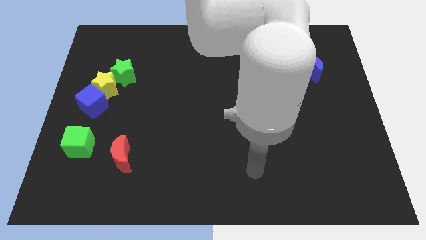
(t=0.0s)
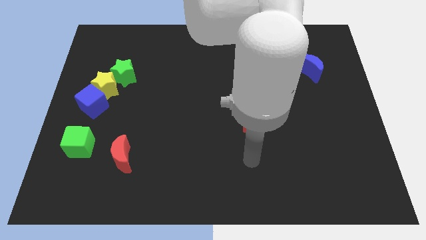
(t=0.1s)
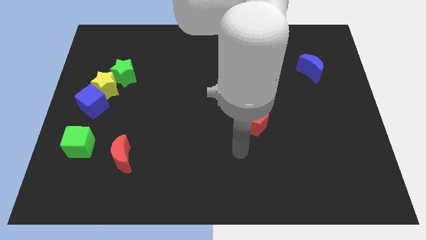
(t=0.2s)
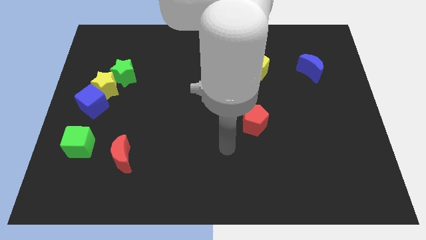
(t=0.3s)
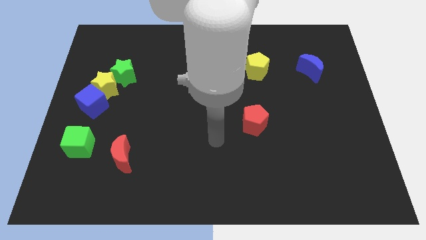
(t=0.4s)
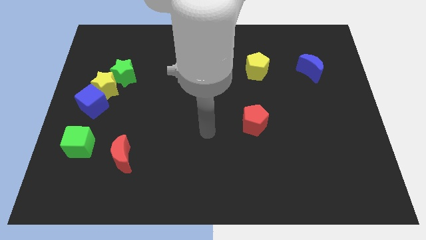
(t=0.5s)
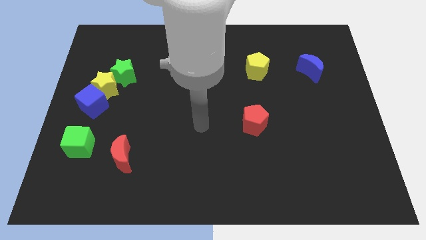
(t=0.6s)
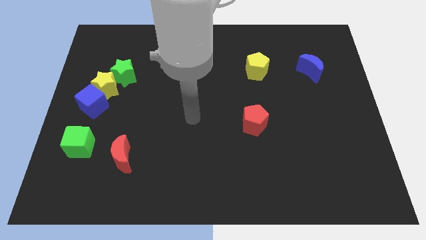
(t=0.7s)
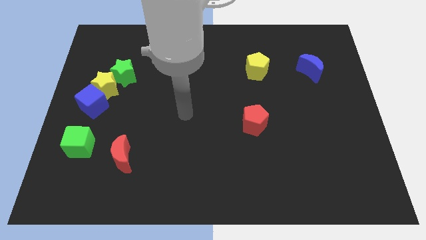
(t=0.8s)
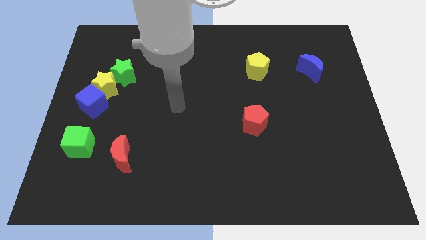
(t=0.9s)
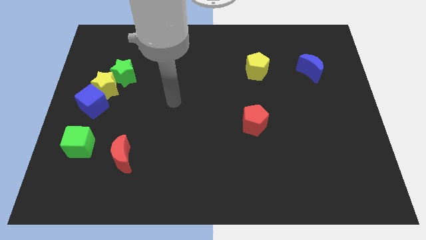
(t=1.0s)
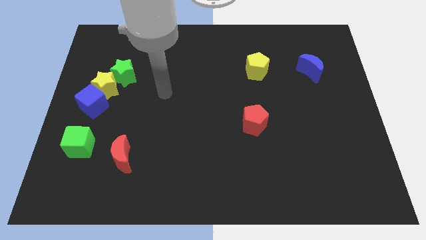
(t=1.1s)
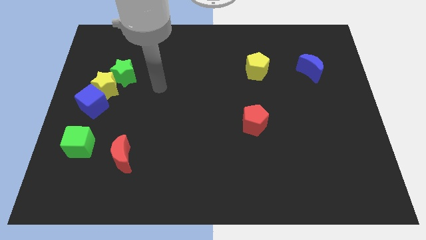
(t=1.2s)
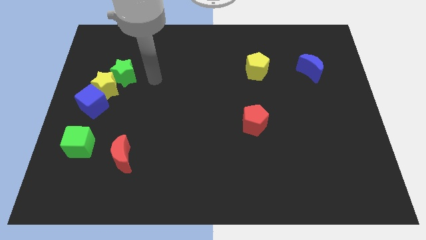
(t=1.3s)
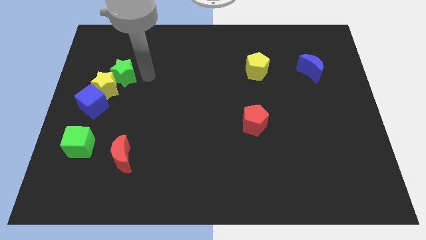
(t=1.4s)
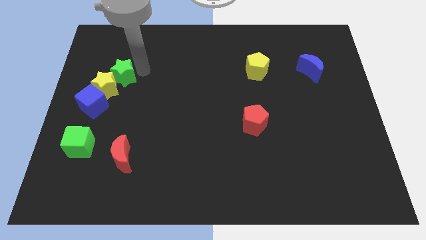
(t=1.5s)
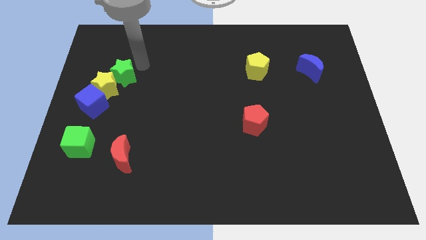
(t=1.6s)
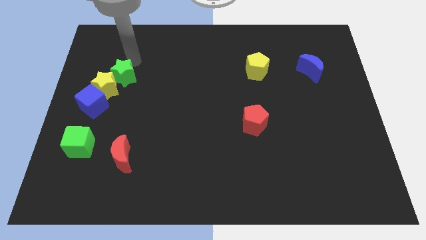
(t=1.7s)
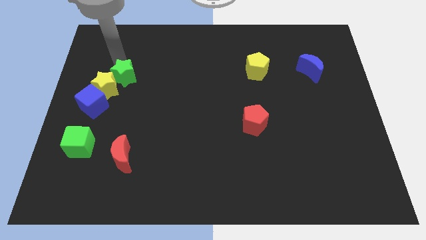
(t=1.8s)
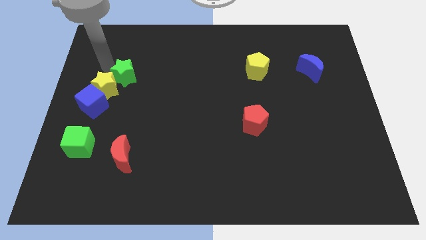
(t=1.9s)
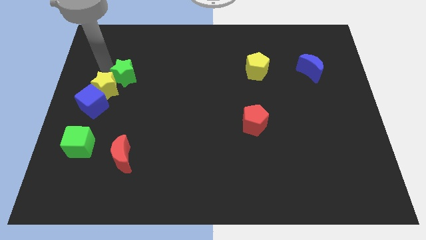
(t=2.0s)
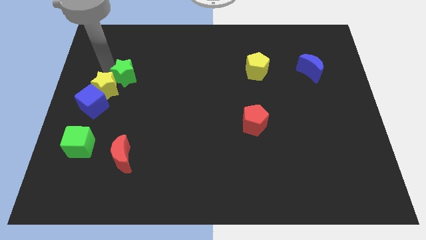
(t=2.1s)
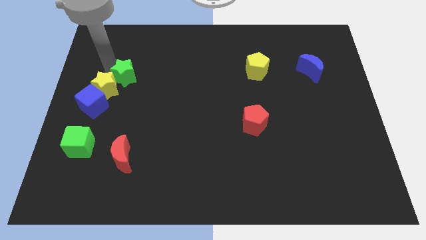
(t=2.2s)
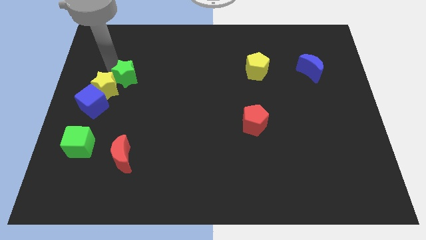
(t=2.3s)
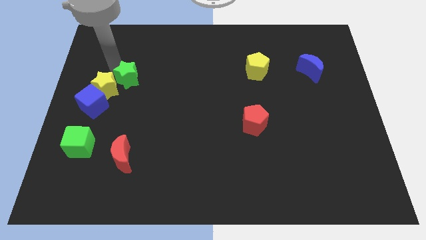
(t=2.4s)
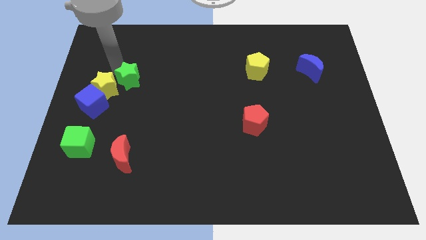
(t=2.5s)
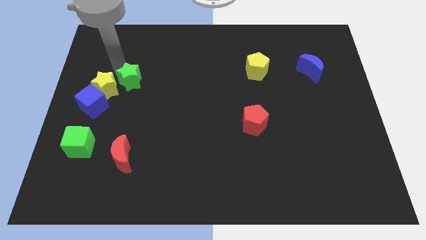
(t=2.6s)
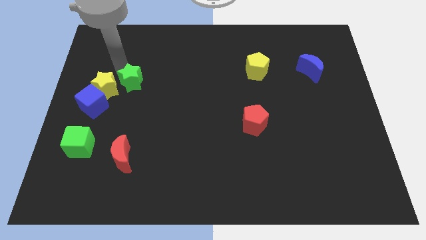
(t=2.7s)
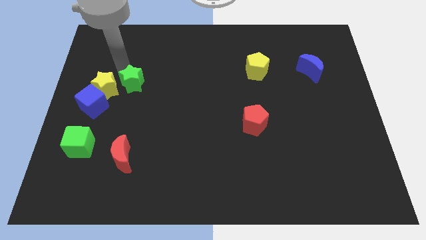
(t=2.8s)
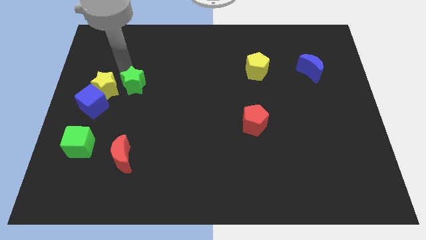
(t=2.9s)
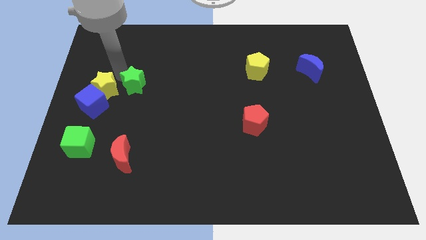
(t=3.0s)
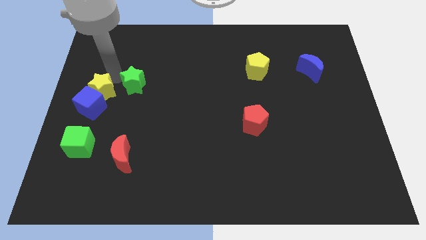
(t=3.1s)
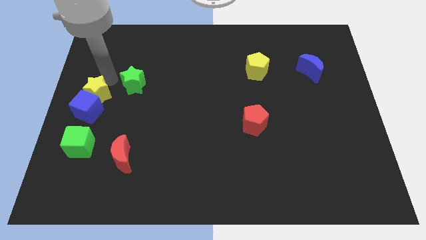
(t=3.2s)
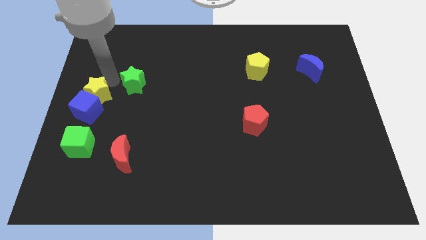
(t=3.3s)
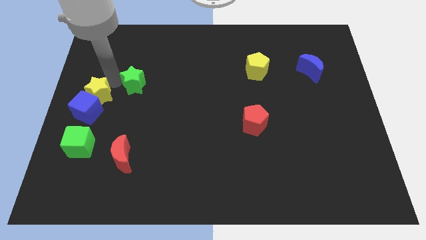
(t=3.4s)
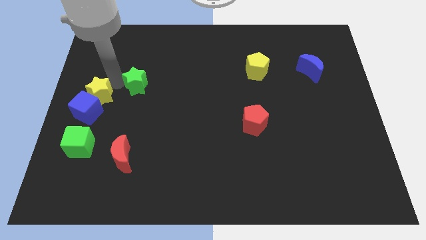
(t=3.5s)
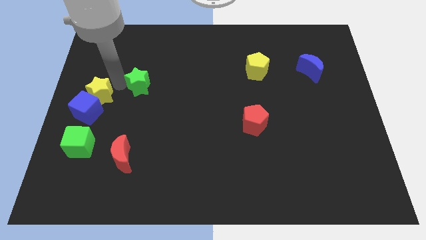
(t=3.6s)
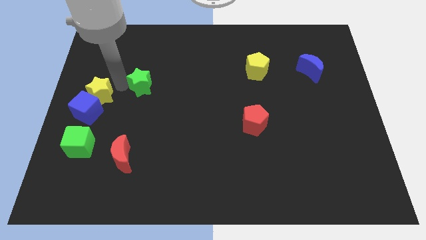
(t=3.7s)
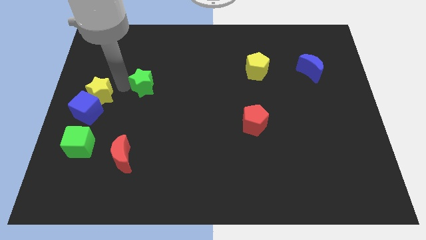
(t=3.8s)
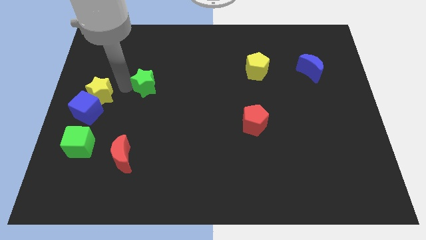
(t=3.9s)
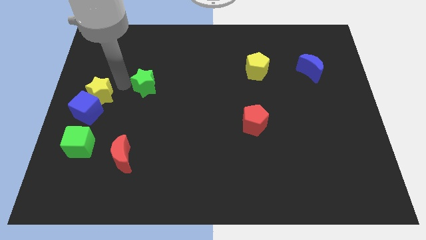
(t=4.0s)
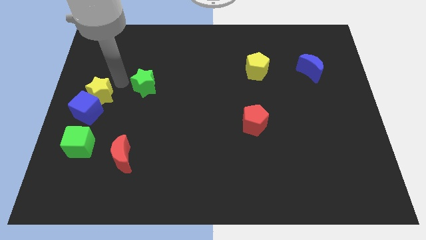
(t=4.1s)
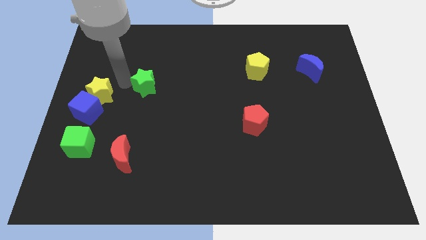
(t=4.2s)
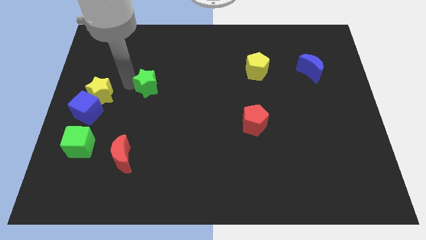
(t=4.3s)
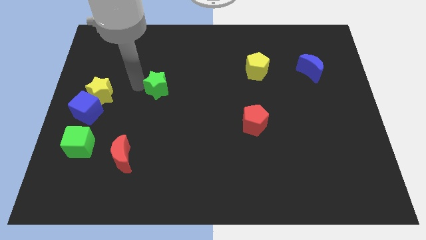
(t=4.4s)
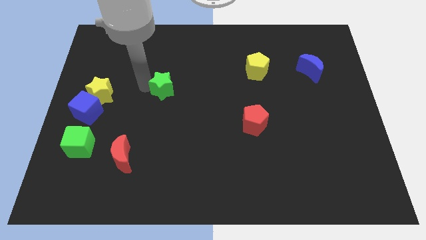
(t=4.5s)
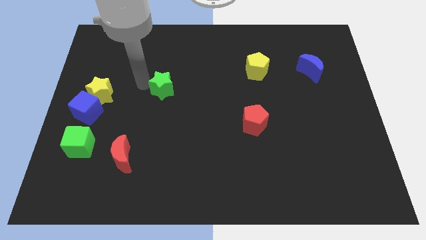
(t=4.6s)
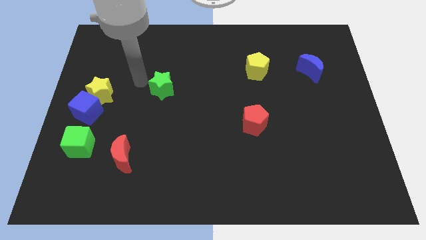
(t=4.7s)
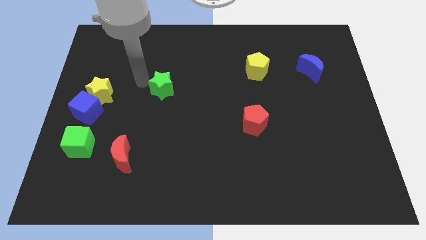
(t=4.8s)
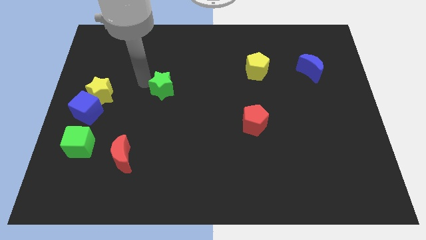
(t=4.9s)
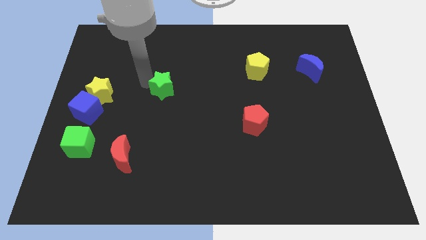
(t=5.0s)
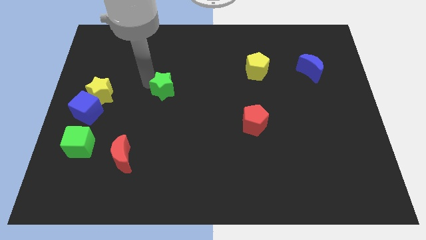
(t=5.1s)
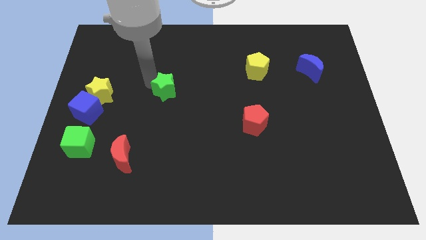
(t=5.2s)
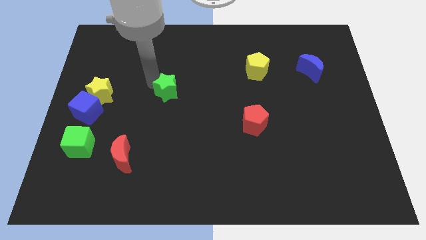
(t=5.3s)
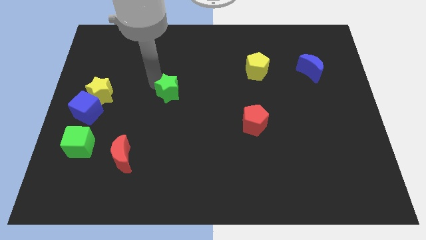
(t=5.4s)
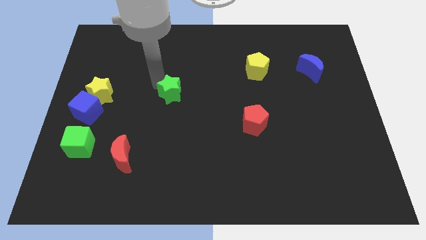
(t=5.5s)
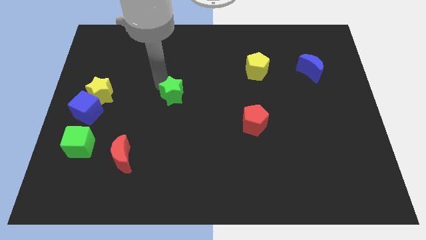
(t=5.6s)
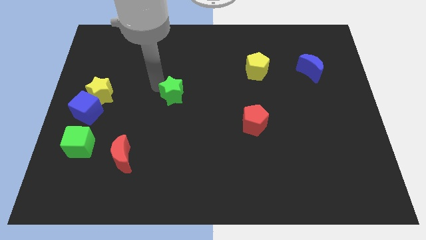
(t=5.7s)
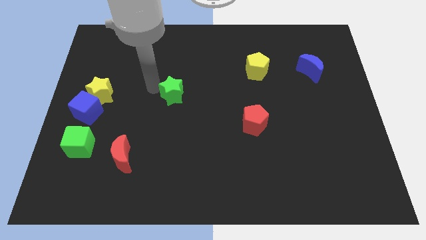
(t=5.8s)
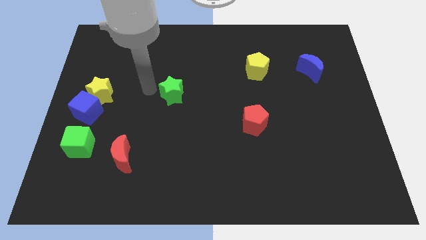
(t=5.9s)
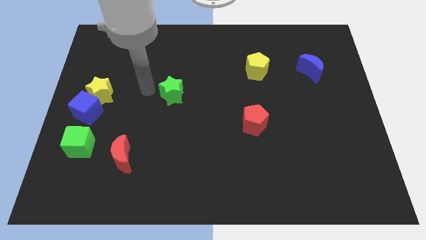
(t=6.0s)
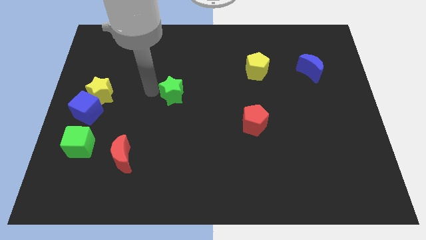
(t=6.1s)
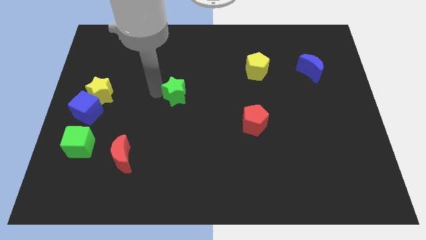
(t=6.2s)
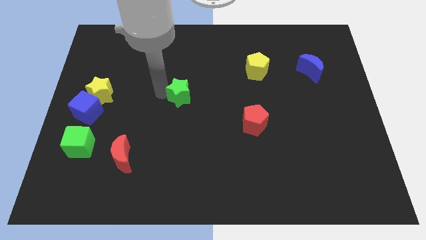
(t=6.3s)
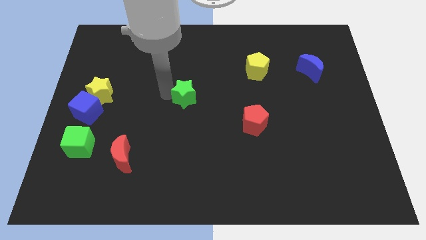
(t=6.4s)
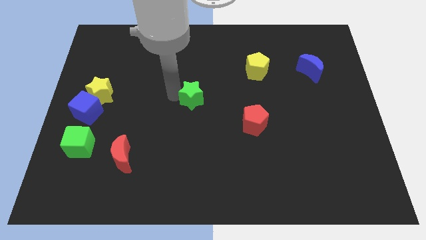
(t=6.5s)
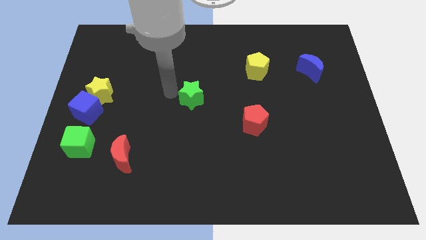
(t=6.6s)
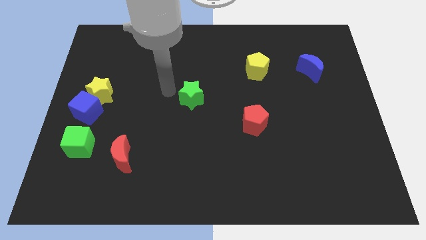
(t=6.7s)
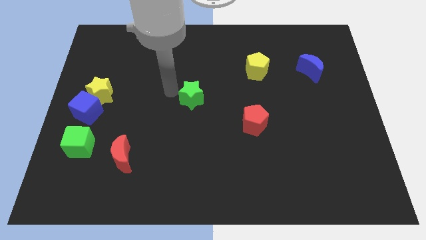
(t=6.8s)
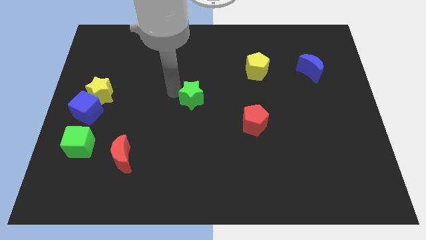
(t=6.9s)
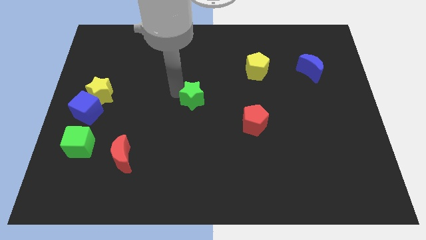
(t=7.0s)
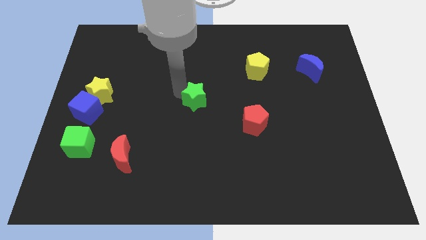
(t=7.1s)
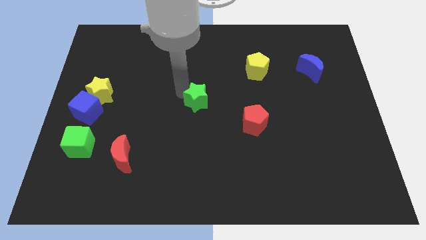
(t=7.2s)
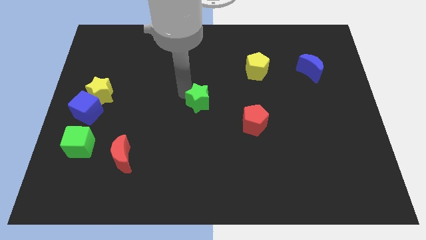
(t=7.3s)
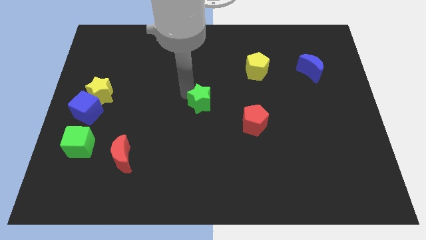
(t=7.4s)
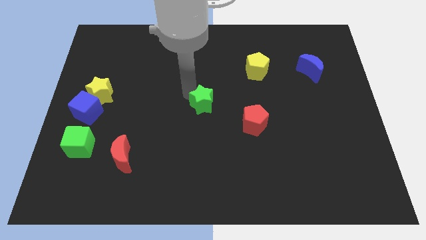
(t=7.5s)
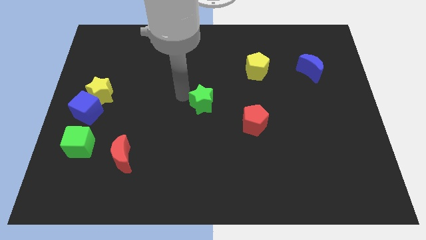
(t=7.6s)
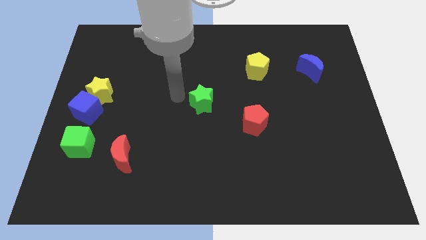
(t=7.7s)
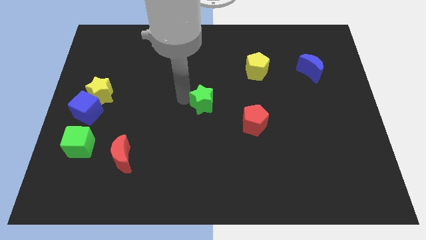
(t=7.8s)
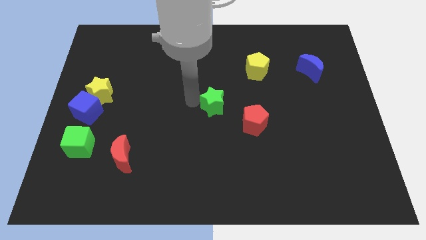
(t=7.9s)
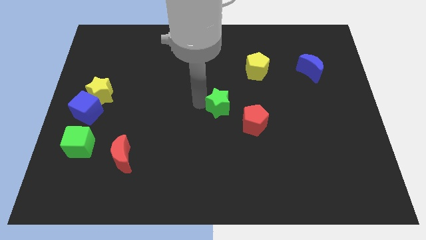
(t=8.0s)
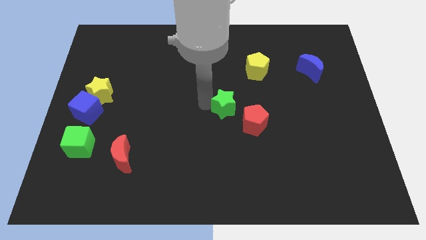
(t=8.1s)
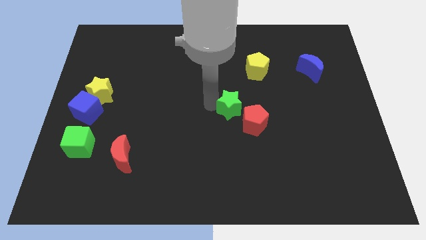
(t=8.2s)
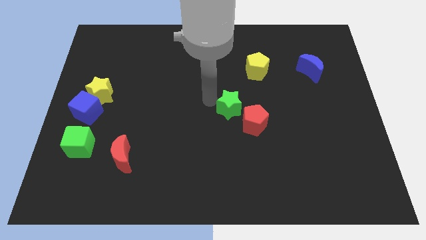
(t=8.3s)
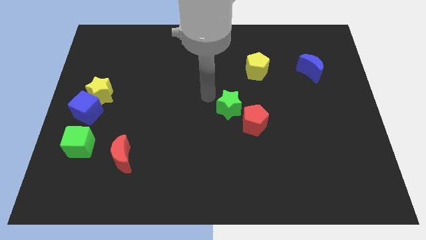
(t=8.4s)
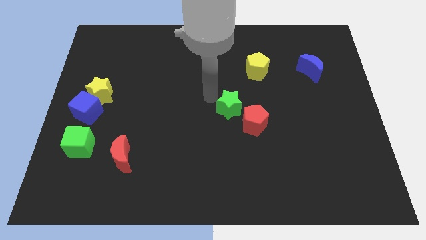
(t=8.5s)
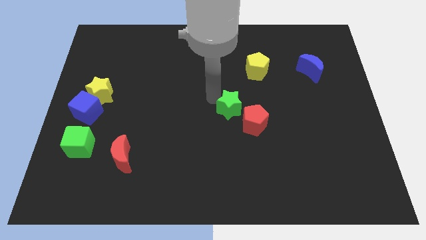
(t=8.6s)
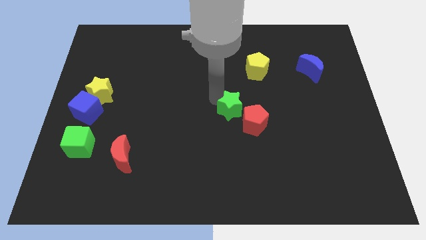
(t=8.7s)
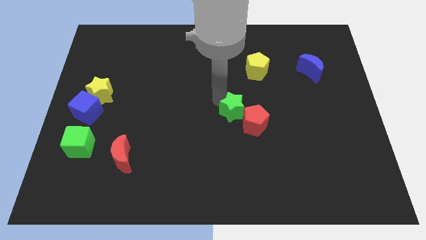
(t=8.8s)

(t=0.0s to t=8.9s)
move the green star close to the red pentagon
